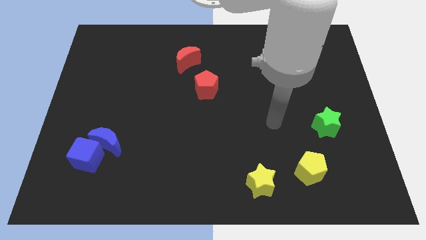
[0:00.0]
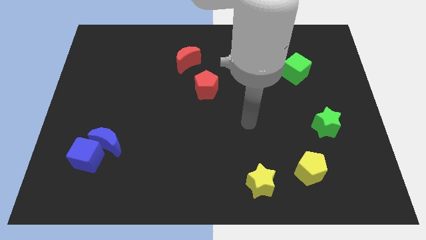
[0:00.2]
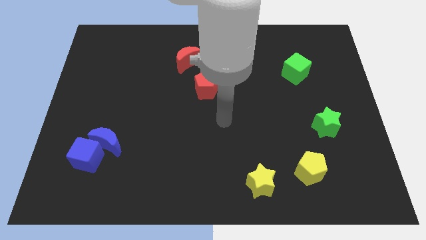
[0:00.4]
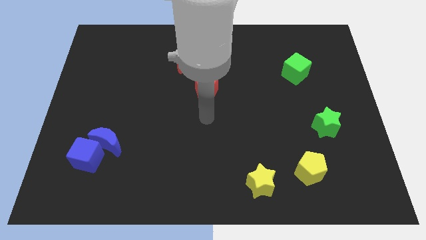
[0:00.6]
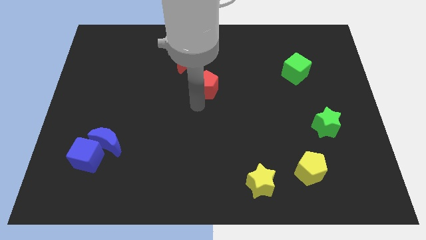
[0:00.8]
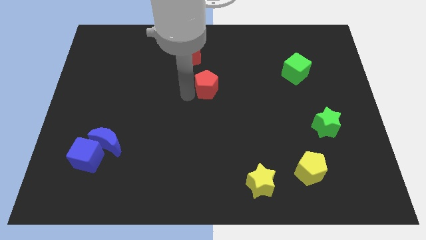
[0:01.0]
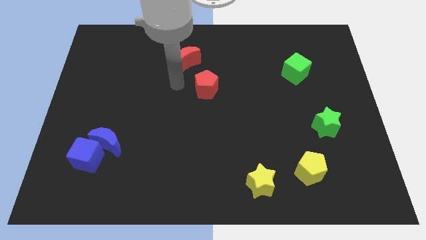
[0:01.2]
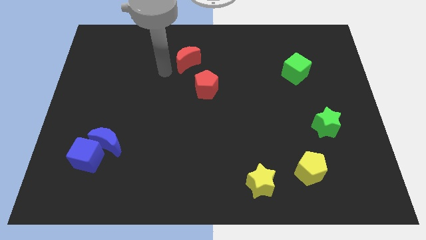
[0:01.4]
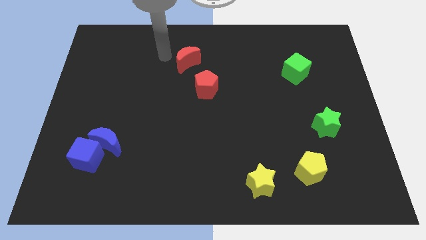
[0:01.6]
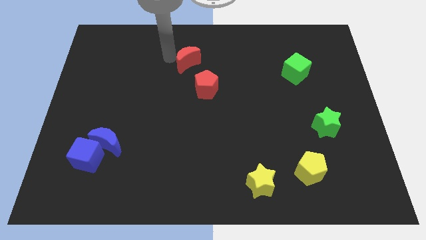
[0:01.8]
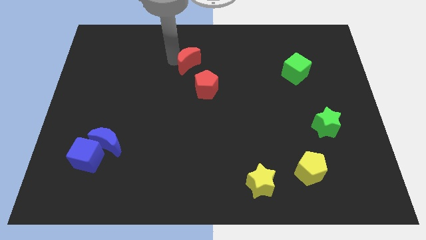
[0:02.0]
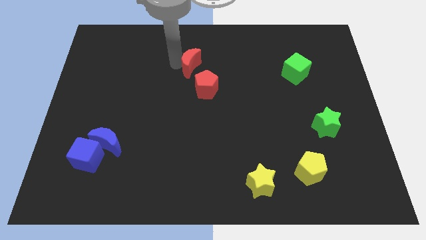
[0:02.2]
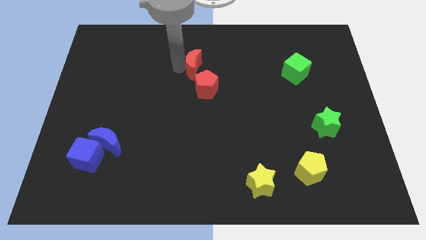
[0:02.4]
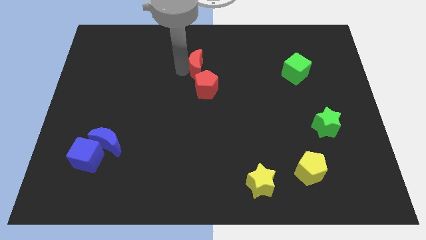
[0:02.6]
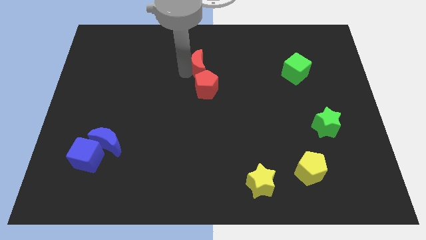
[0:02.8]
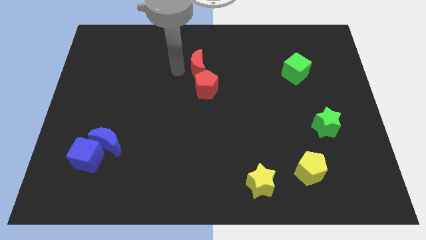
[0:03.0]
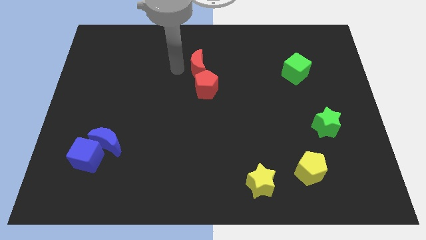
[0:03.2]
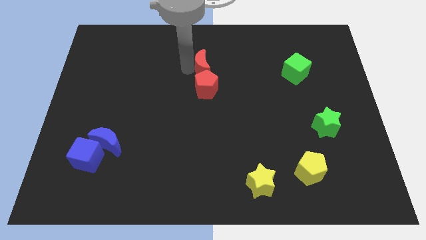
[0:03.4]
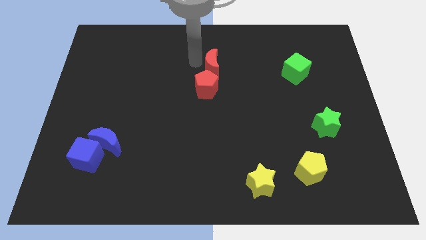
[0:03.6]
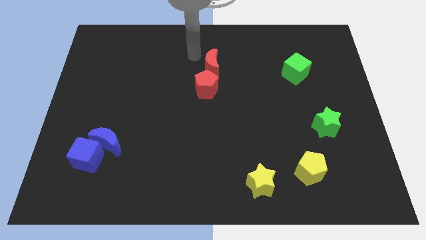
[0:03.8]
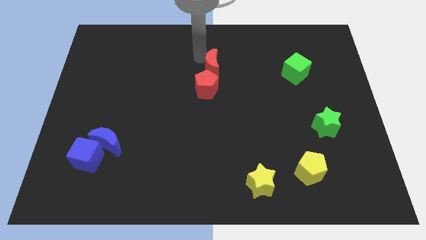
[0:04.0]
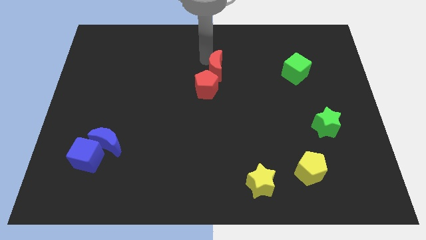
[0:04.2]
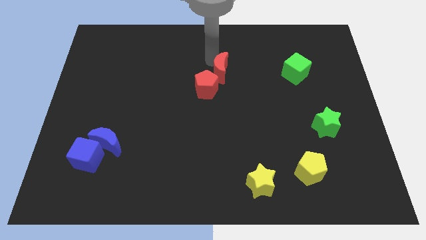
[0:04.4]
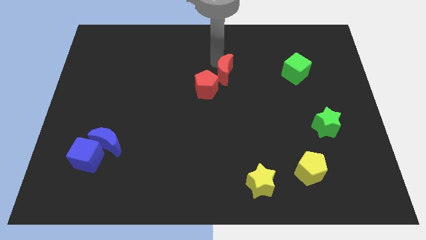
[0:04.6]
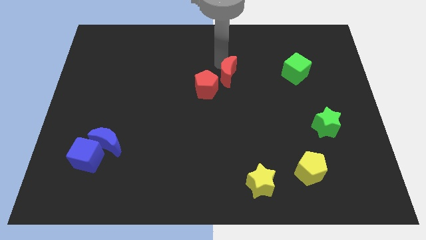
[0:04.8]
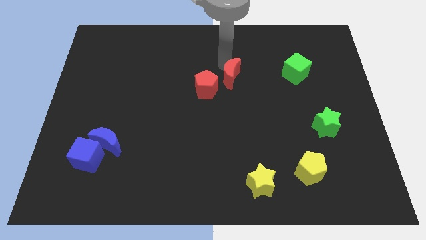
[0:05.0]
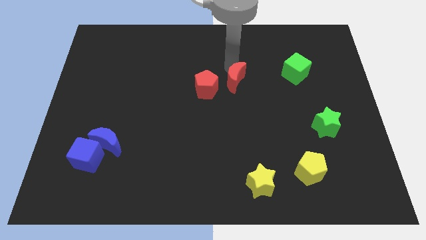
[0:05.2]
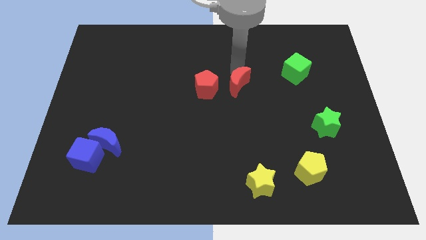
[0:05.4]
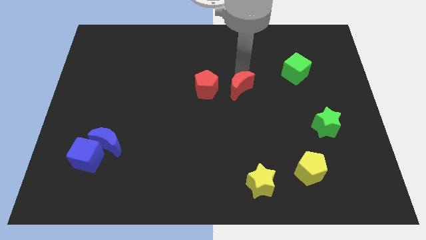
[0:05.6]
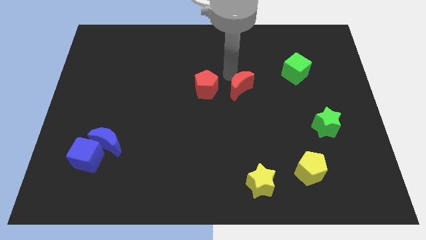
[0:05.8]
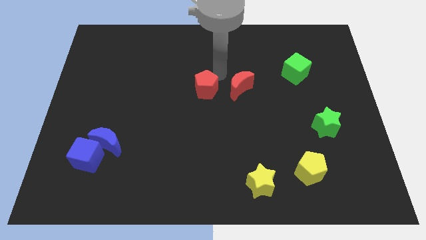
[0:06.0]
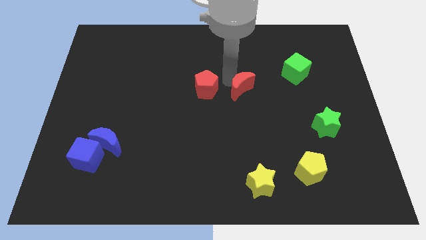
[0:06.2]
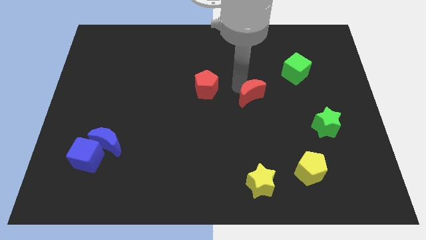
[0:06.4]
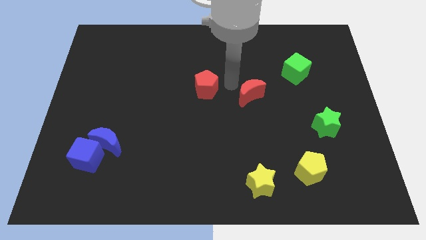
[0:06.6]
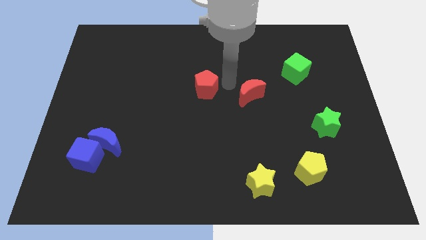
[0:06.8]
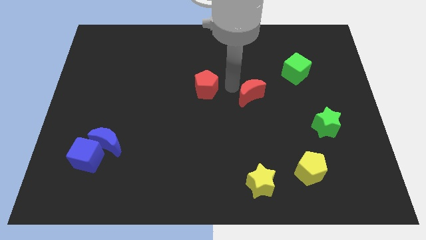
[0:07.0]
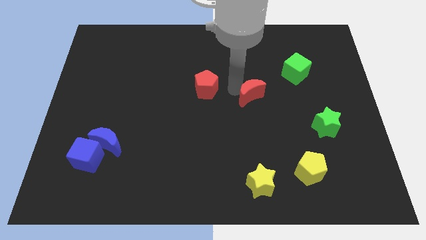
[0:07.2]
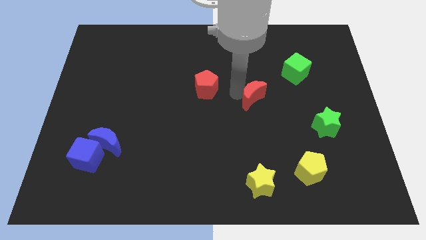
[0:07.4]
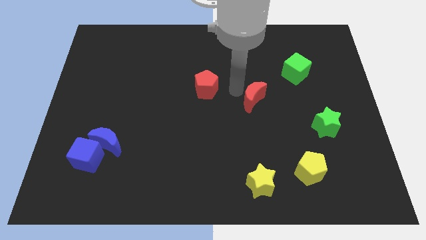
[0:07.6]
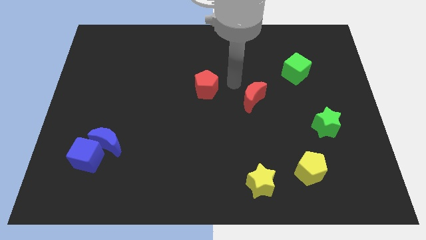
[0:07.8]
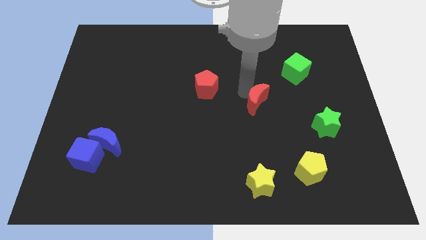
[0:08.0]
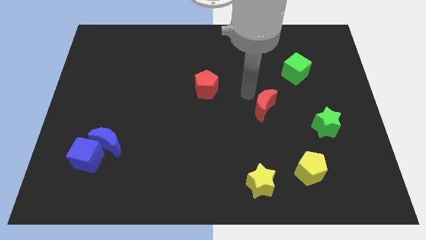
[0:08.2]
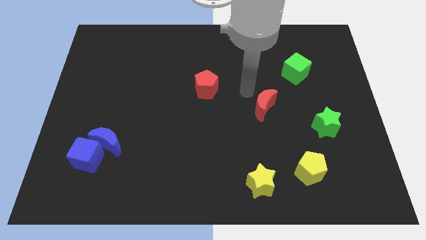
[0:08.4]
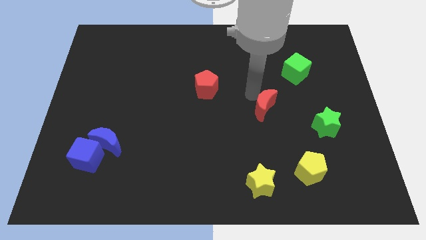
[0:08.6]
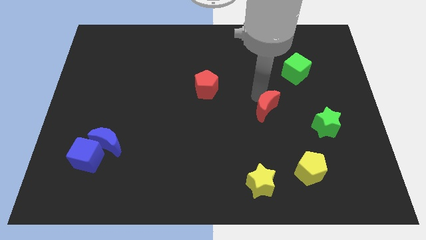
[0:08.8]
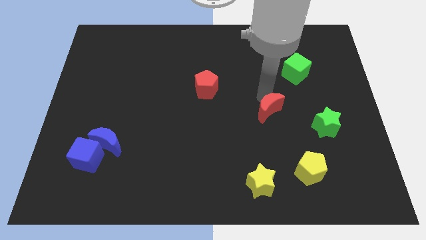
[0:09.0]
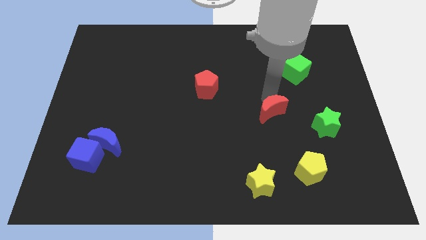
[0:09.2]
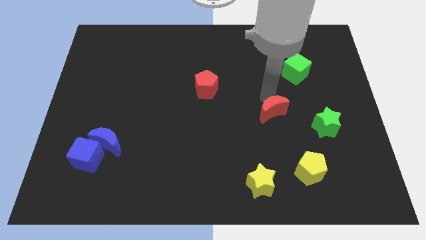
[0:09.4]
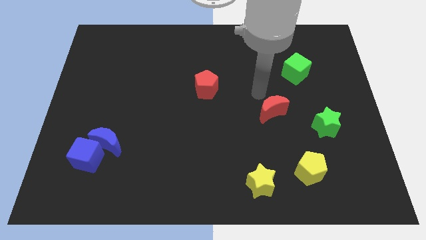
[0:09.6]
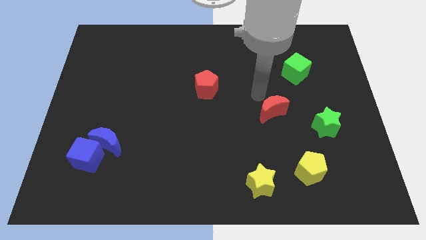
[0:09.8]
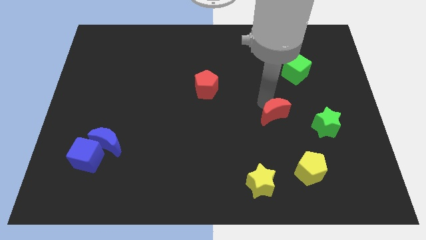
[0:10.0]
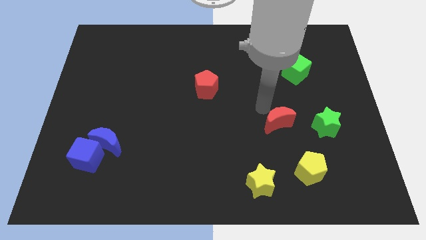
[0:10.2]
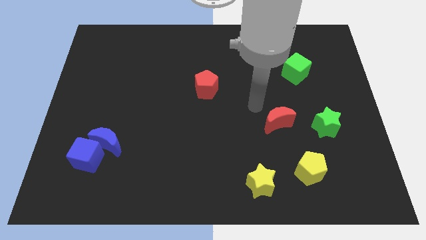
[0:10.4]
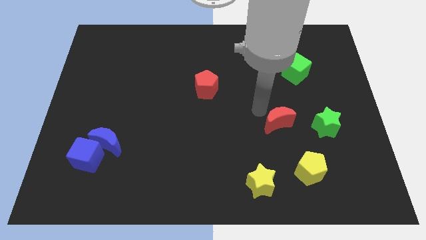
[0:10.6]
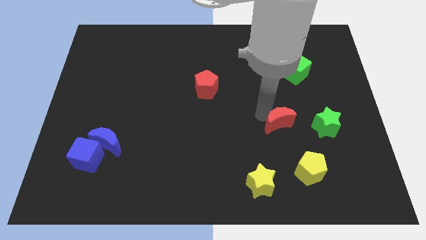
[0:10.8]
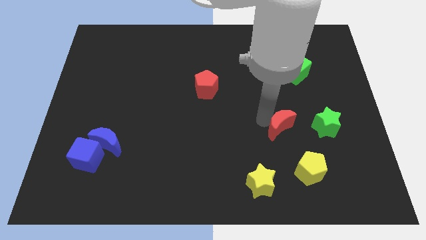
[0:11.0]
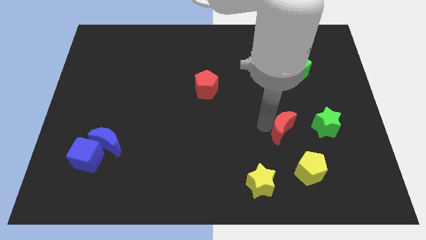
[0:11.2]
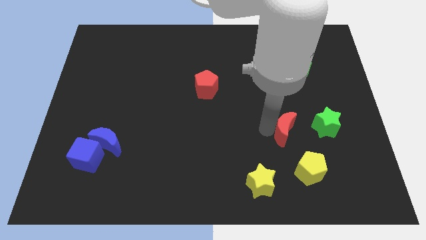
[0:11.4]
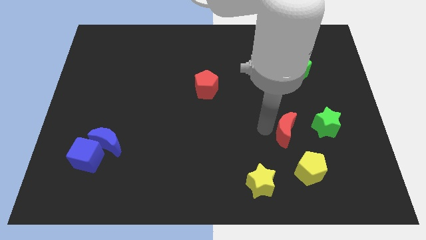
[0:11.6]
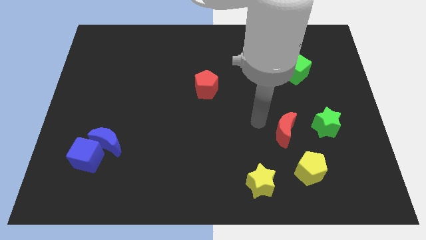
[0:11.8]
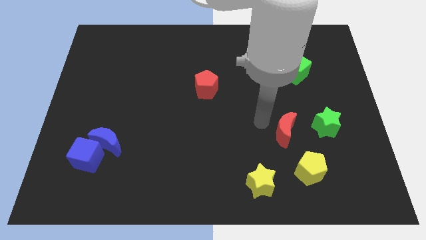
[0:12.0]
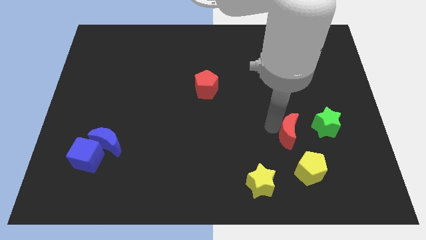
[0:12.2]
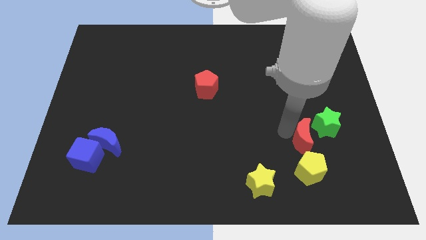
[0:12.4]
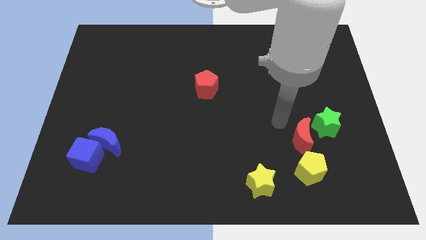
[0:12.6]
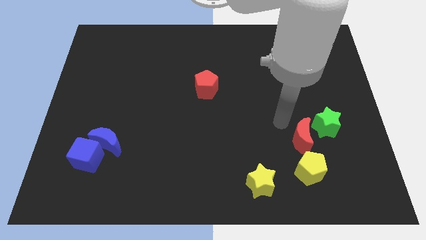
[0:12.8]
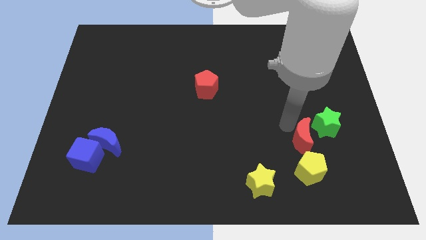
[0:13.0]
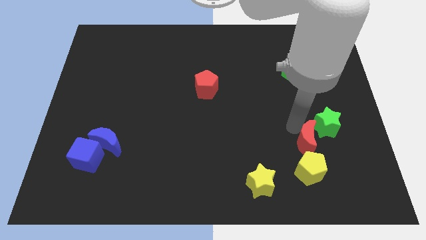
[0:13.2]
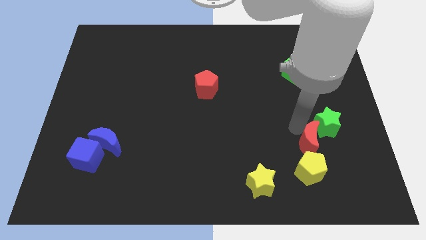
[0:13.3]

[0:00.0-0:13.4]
move the red moon below the green star
